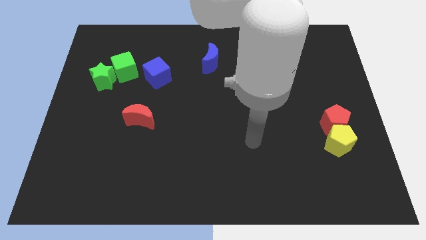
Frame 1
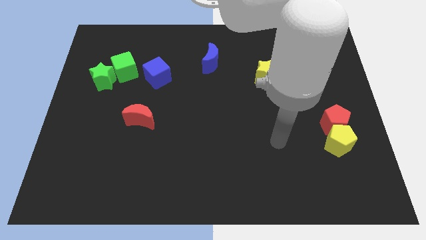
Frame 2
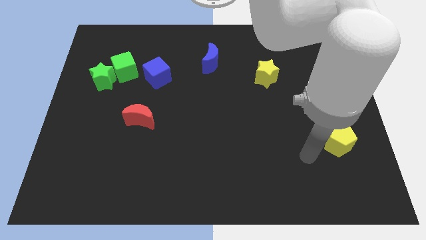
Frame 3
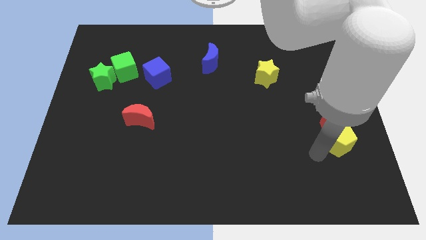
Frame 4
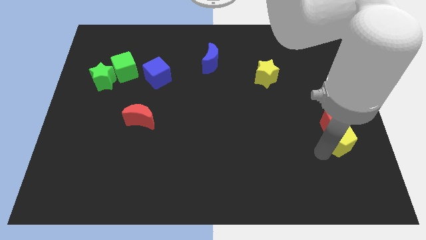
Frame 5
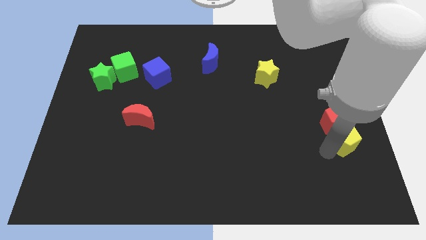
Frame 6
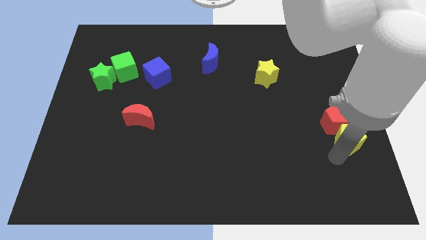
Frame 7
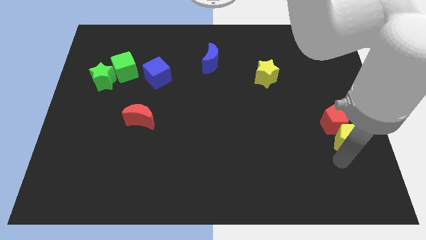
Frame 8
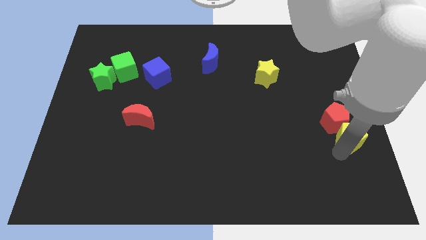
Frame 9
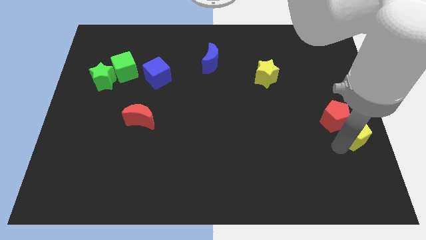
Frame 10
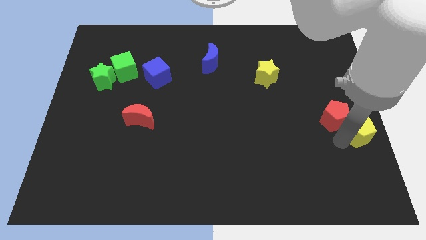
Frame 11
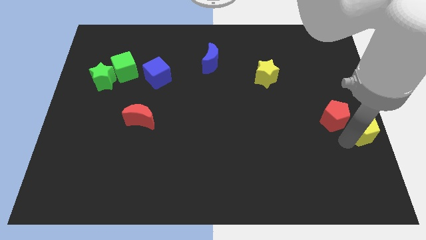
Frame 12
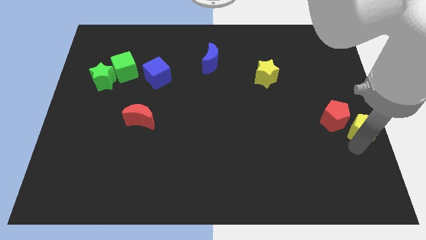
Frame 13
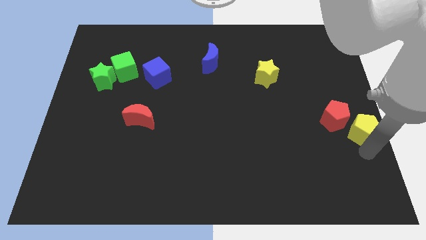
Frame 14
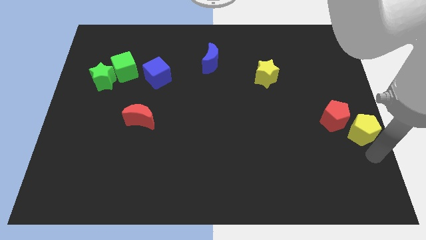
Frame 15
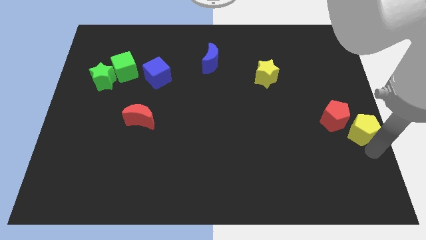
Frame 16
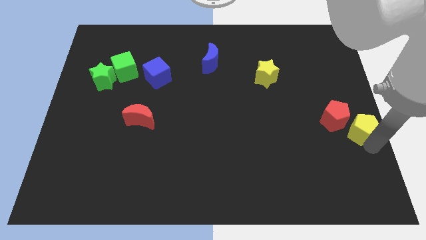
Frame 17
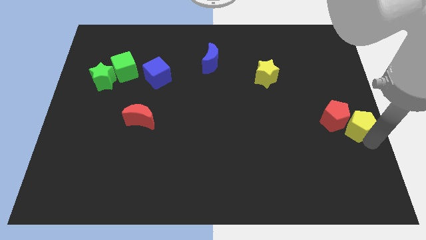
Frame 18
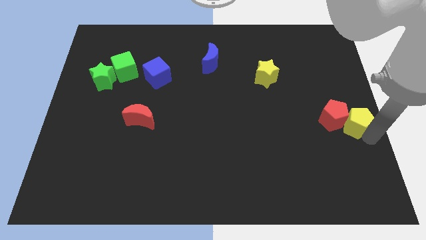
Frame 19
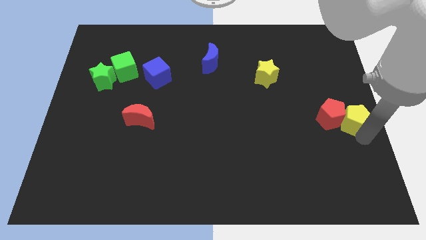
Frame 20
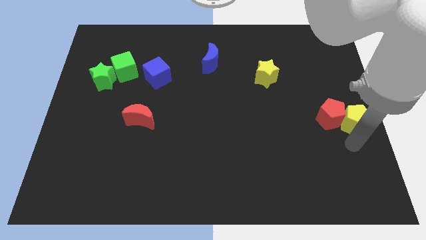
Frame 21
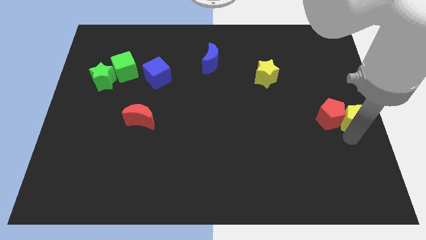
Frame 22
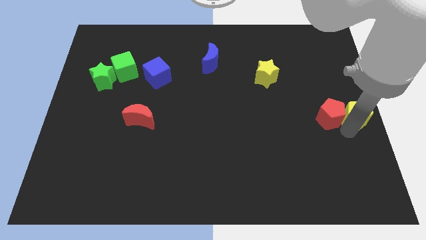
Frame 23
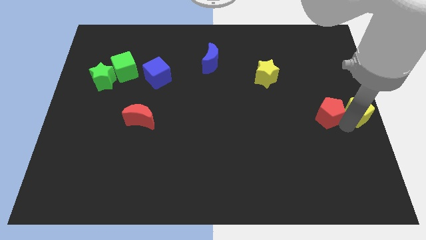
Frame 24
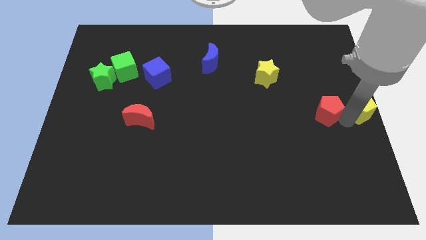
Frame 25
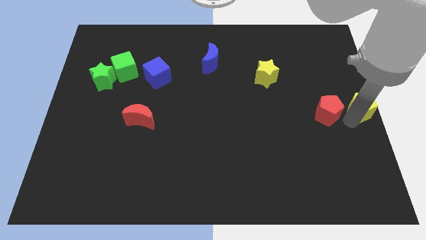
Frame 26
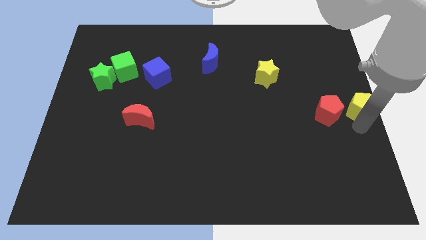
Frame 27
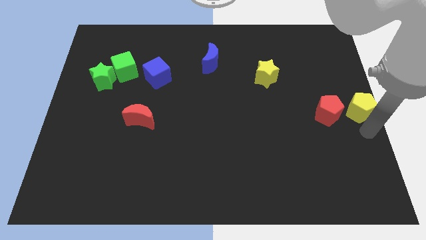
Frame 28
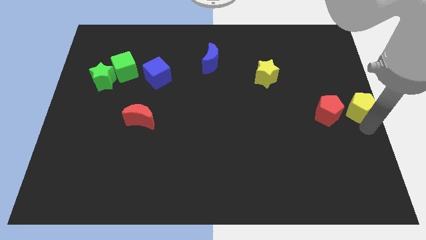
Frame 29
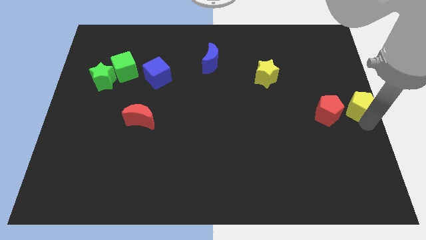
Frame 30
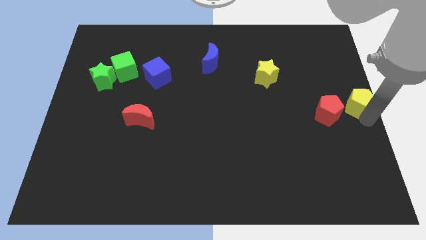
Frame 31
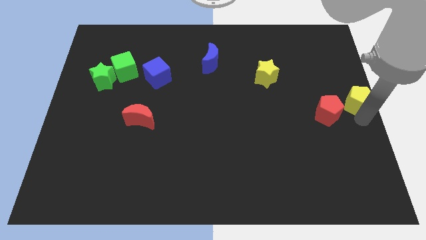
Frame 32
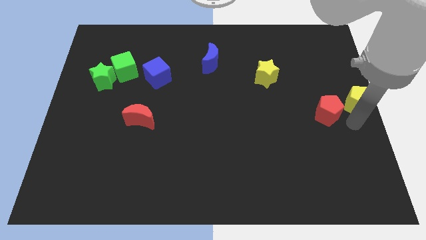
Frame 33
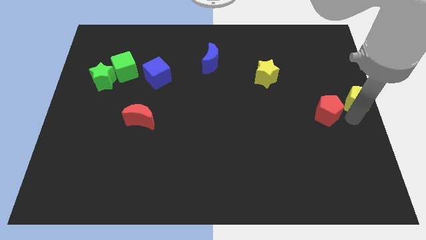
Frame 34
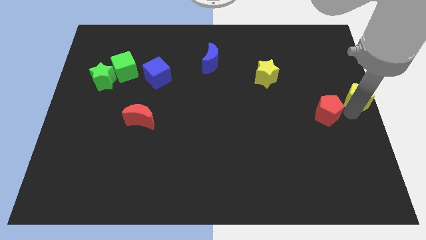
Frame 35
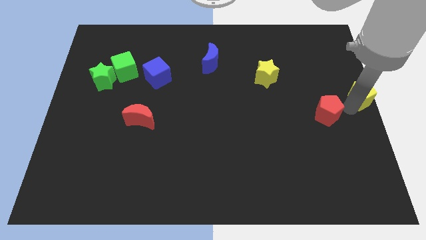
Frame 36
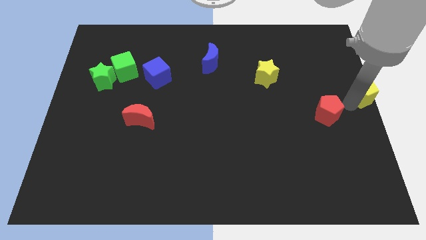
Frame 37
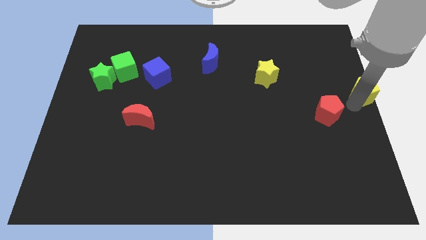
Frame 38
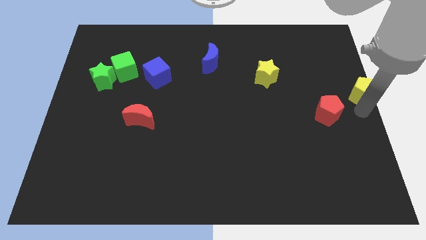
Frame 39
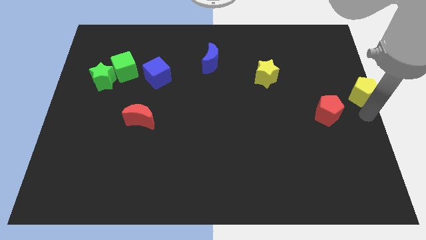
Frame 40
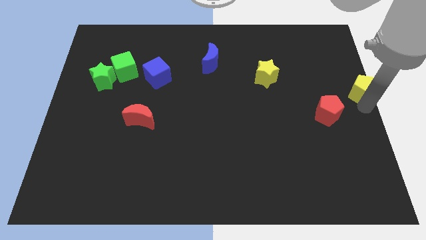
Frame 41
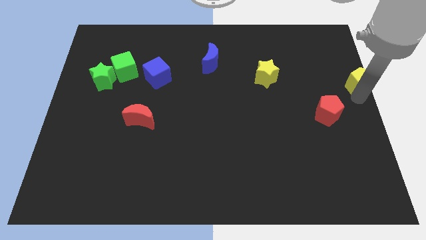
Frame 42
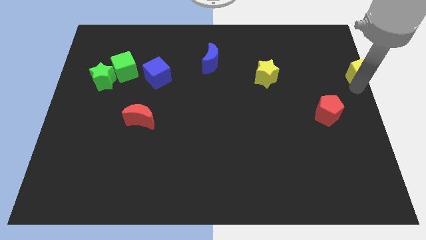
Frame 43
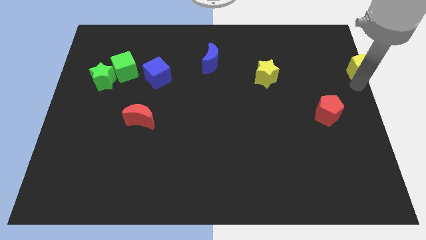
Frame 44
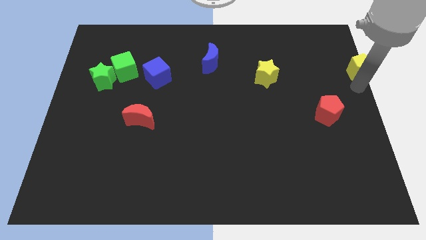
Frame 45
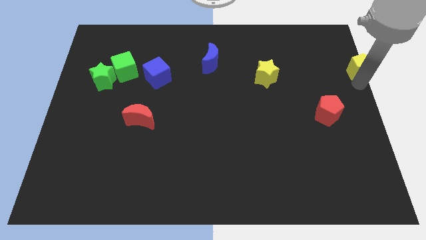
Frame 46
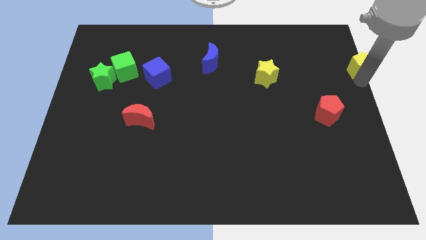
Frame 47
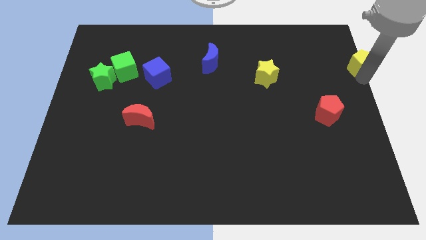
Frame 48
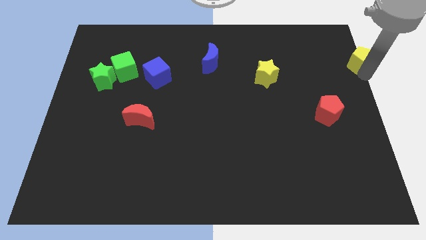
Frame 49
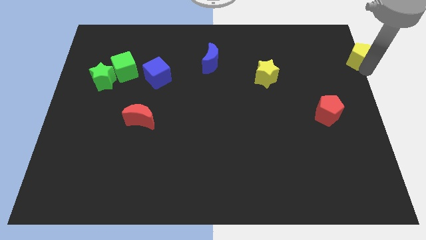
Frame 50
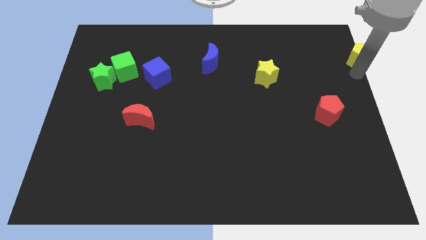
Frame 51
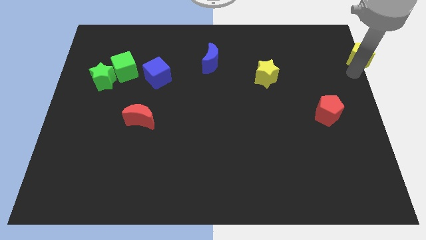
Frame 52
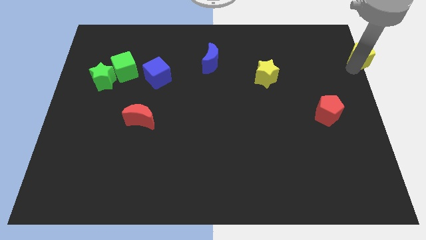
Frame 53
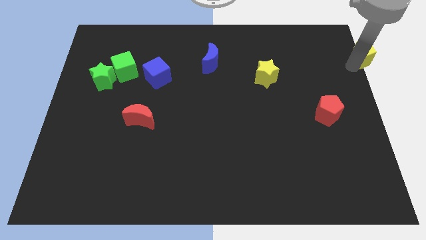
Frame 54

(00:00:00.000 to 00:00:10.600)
move the yellow pentagon to the top right corner

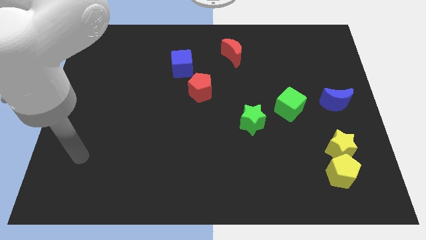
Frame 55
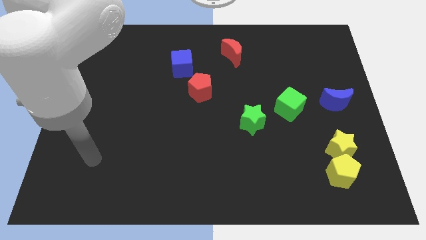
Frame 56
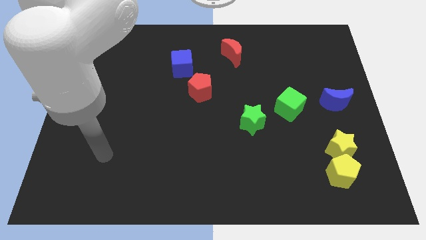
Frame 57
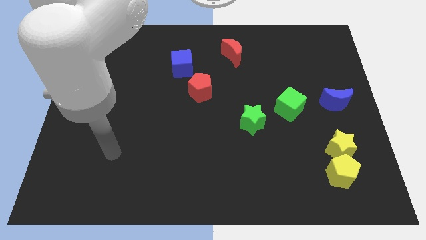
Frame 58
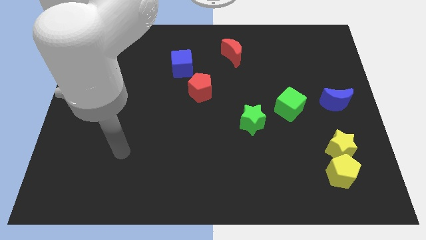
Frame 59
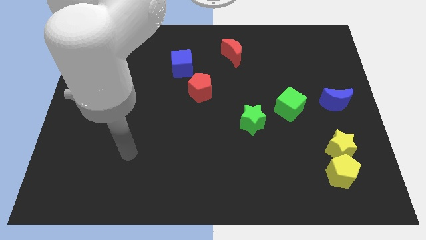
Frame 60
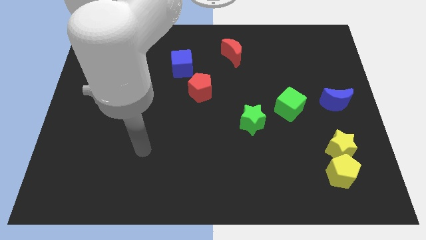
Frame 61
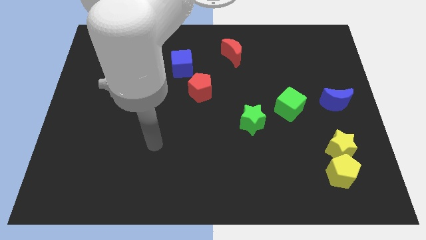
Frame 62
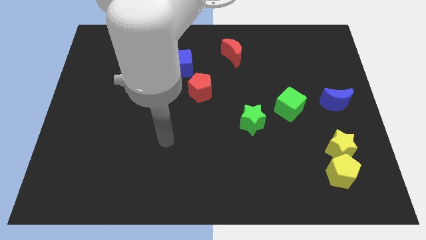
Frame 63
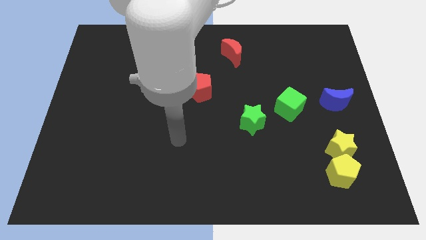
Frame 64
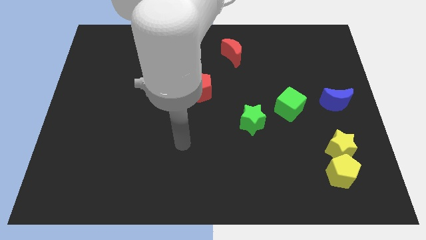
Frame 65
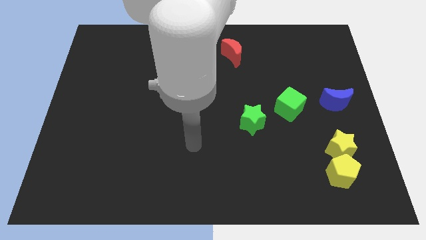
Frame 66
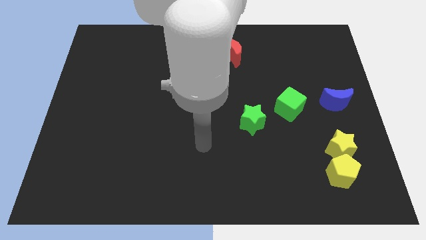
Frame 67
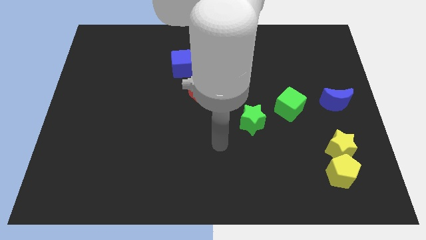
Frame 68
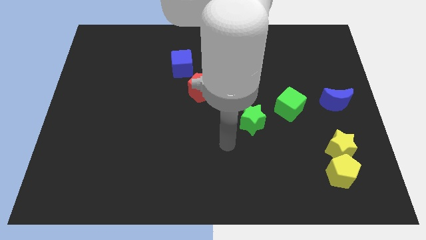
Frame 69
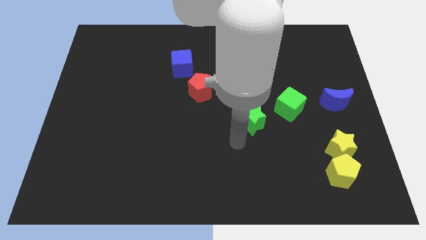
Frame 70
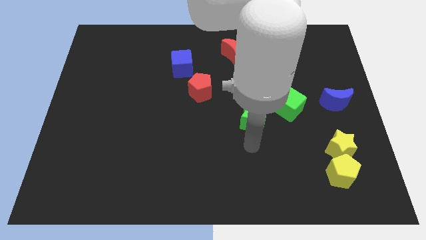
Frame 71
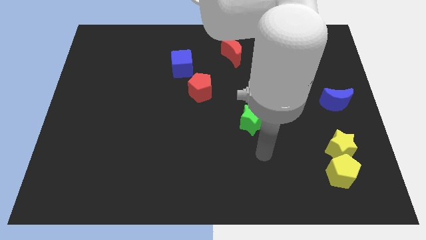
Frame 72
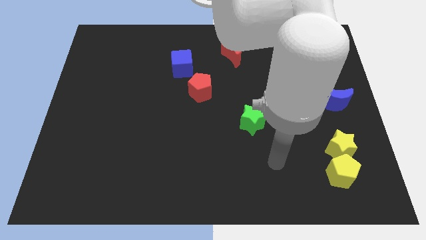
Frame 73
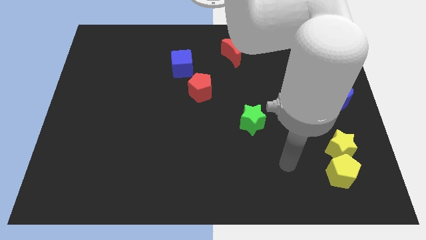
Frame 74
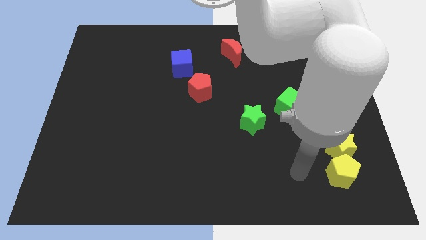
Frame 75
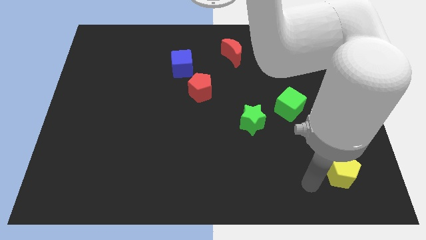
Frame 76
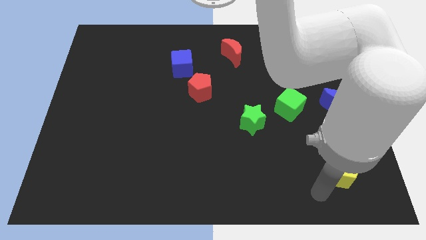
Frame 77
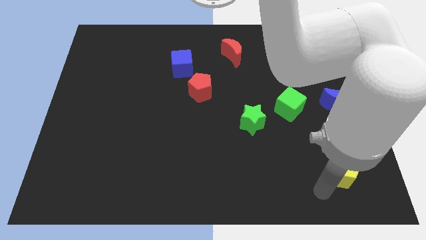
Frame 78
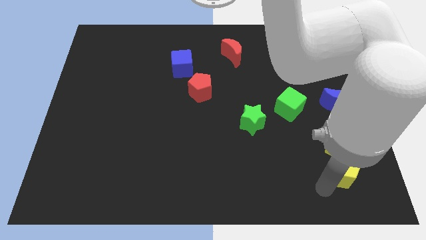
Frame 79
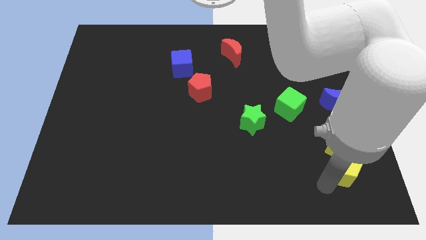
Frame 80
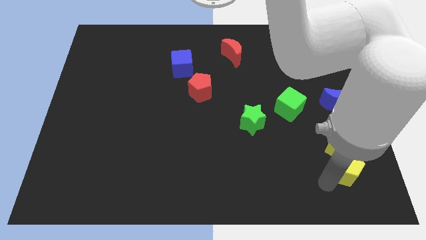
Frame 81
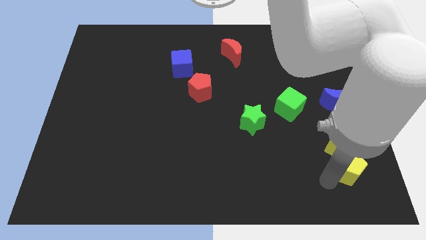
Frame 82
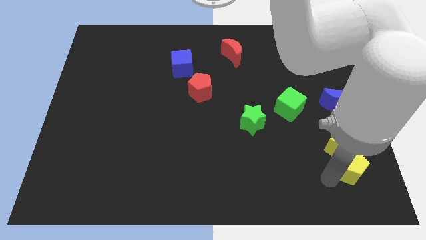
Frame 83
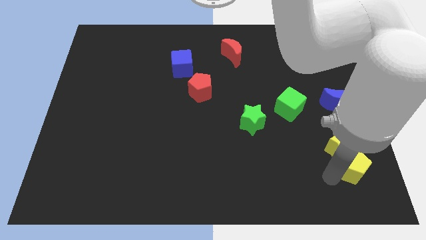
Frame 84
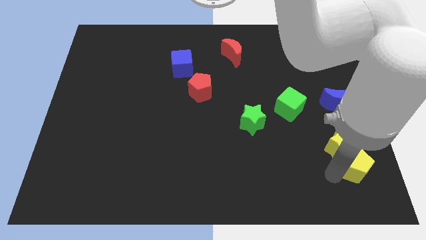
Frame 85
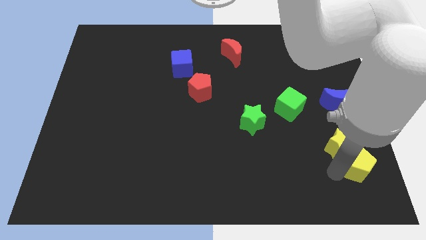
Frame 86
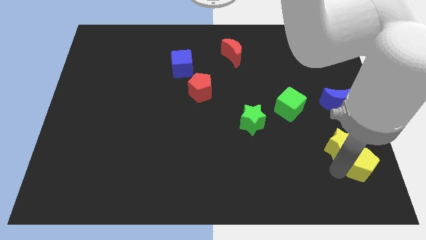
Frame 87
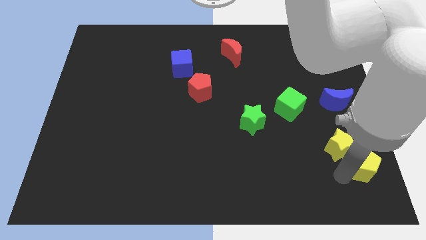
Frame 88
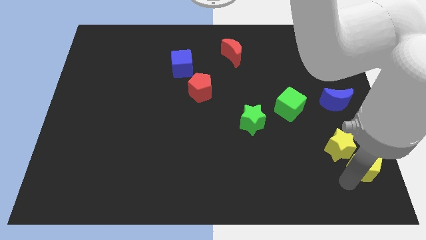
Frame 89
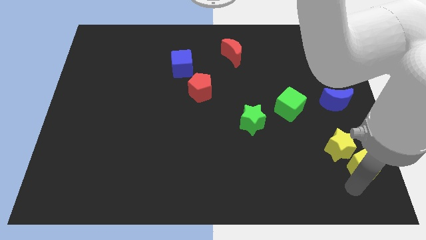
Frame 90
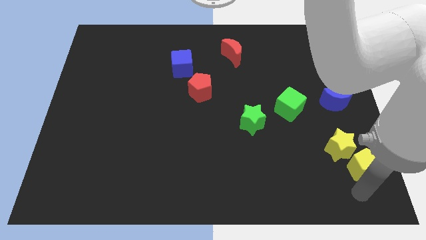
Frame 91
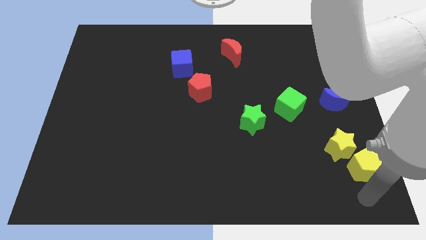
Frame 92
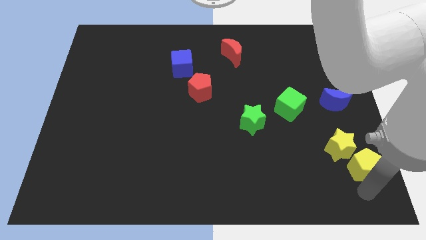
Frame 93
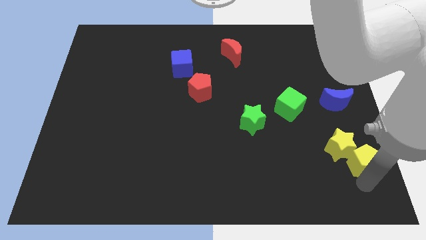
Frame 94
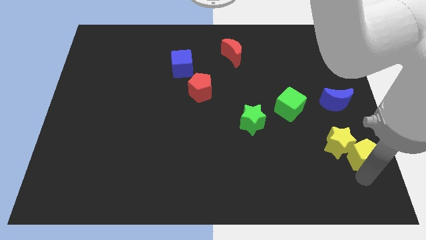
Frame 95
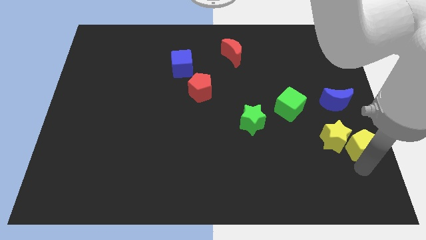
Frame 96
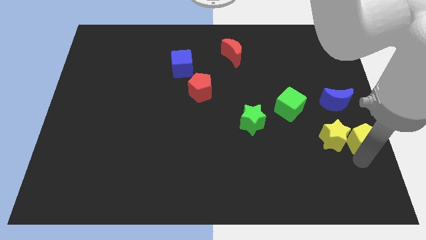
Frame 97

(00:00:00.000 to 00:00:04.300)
move the yellow pentagon to the right side of the board
